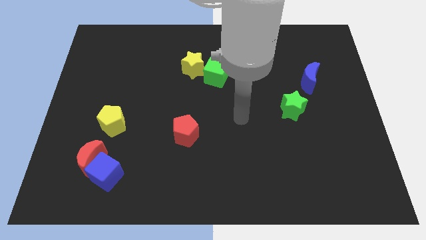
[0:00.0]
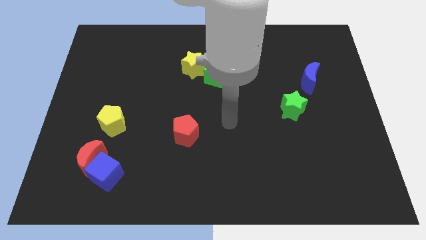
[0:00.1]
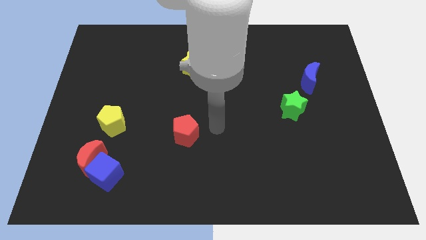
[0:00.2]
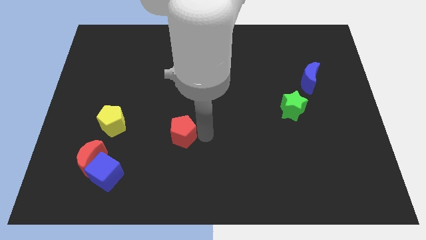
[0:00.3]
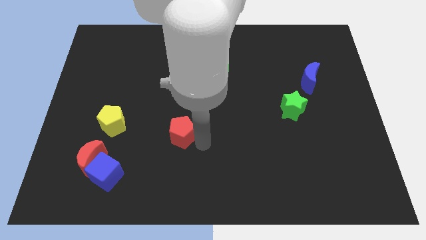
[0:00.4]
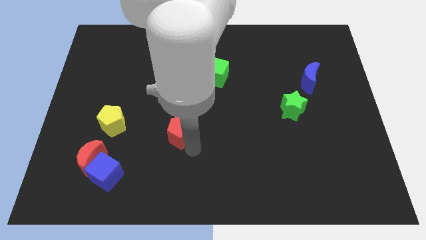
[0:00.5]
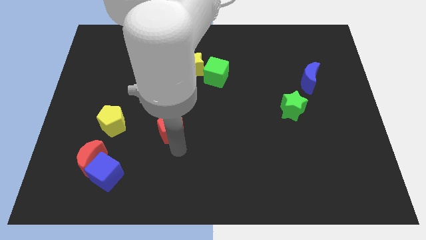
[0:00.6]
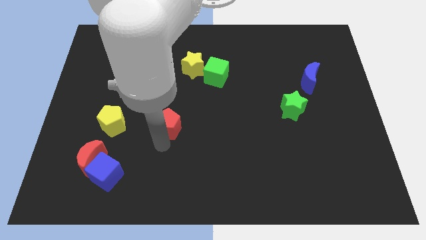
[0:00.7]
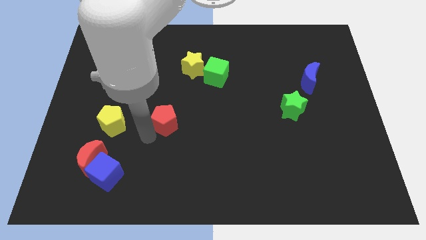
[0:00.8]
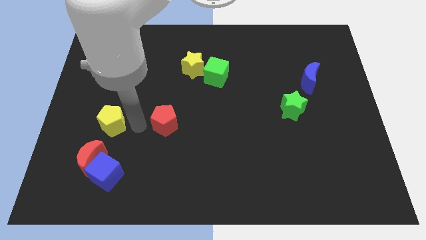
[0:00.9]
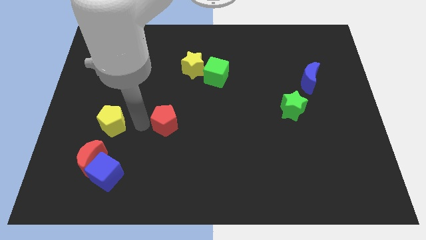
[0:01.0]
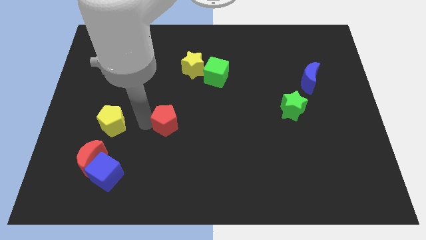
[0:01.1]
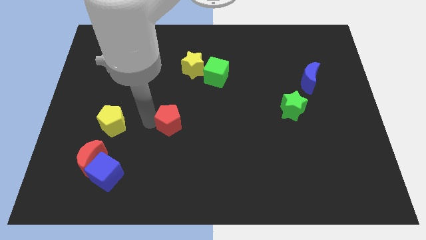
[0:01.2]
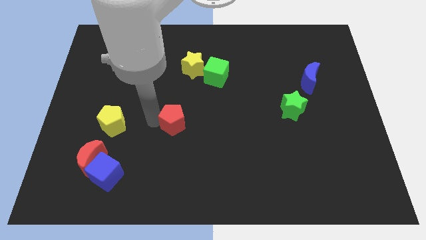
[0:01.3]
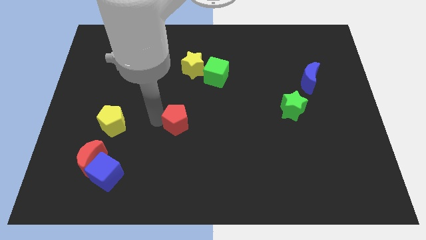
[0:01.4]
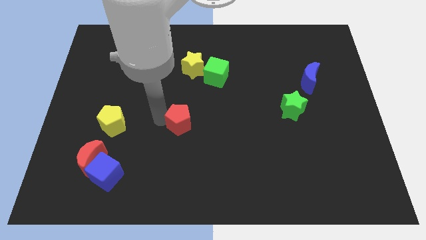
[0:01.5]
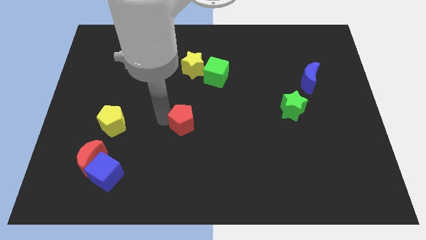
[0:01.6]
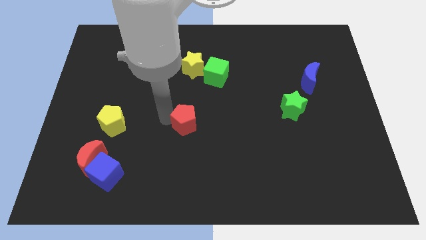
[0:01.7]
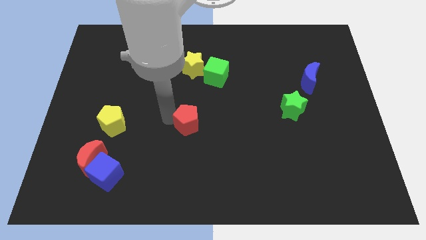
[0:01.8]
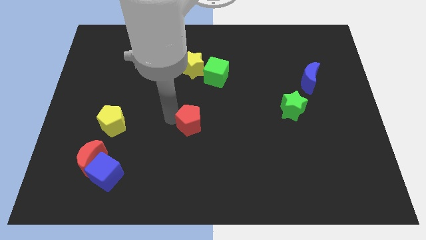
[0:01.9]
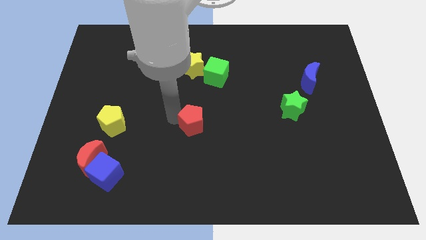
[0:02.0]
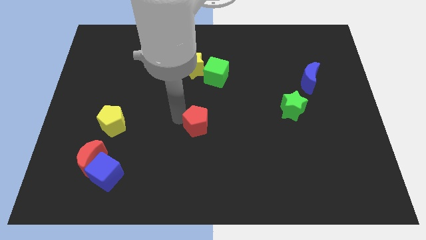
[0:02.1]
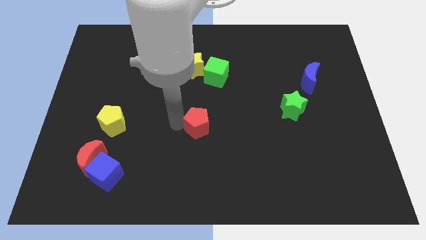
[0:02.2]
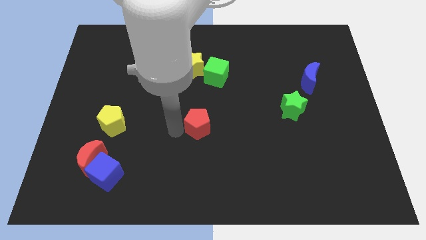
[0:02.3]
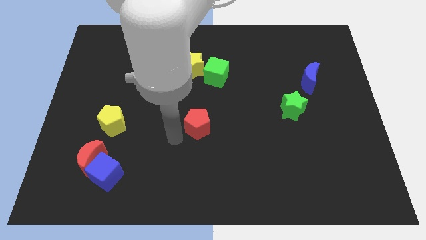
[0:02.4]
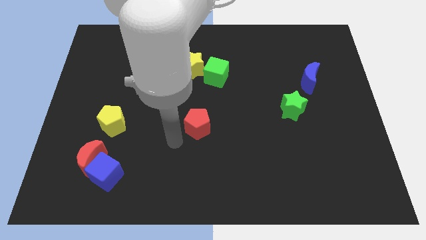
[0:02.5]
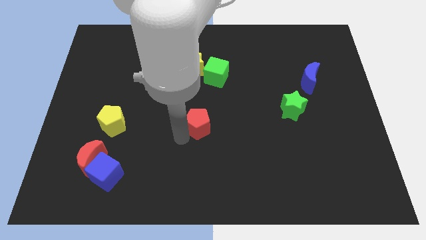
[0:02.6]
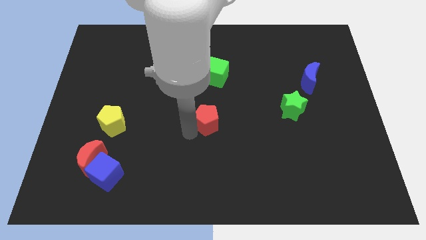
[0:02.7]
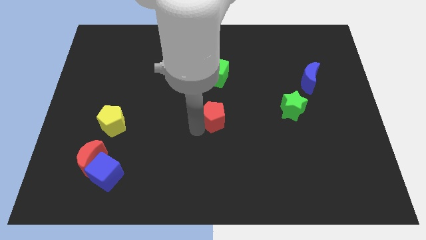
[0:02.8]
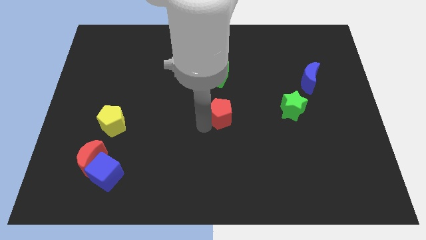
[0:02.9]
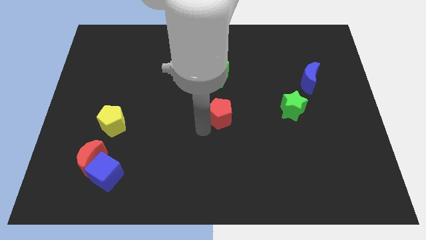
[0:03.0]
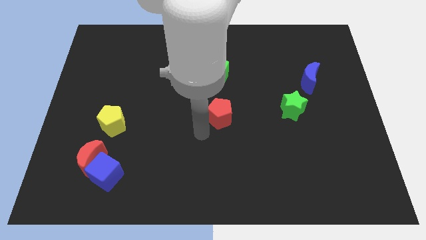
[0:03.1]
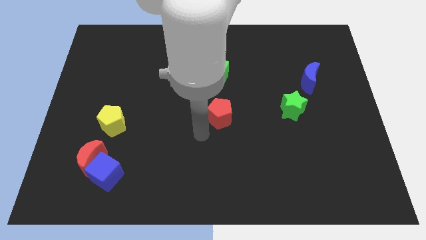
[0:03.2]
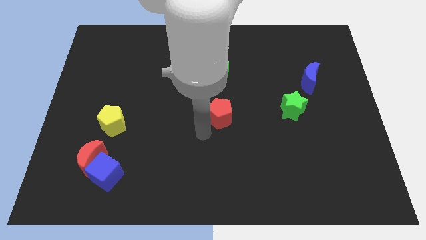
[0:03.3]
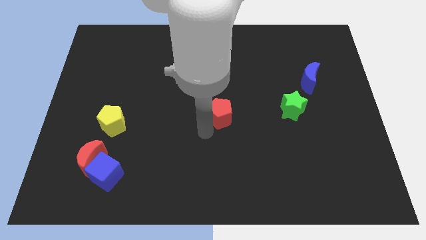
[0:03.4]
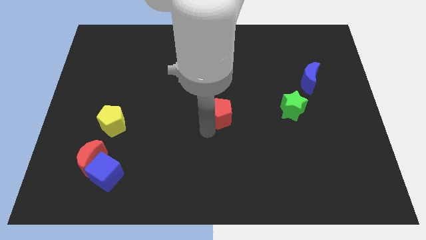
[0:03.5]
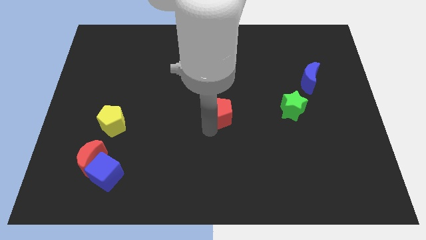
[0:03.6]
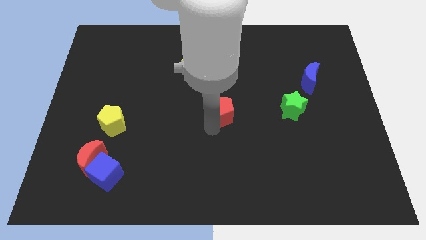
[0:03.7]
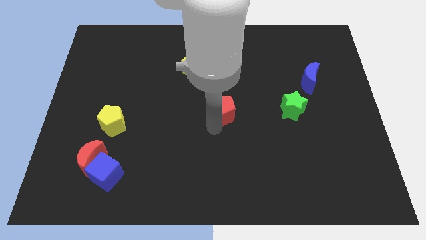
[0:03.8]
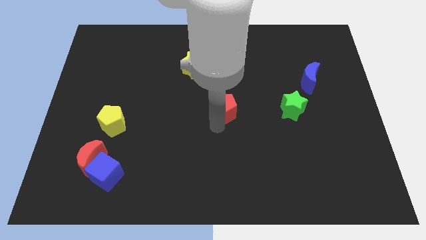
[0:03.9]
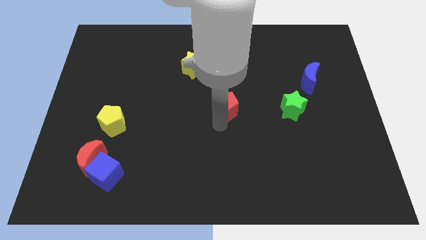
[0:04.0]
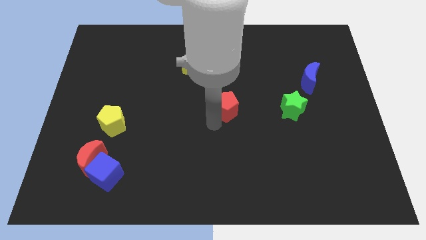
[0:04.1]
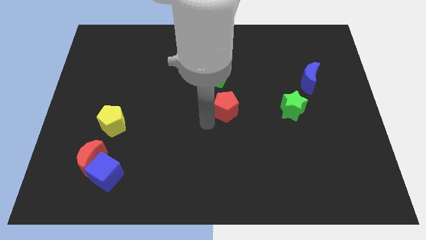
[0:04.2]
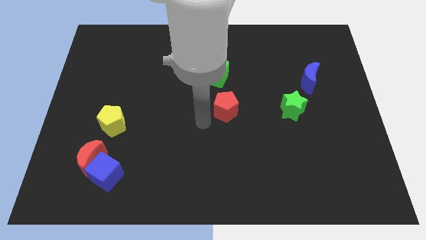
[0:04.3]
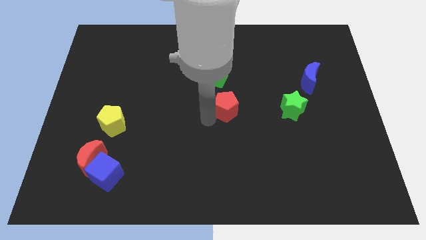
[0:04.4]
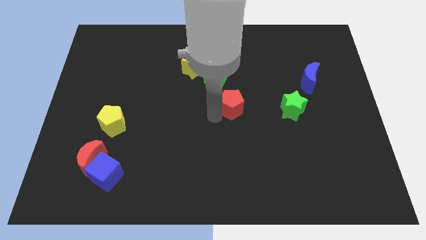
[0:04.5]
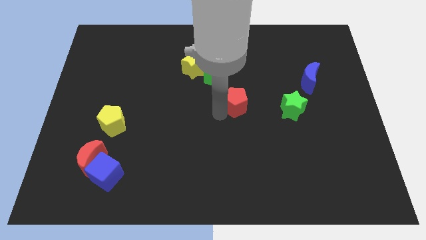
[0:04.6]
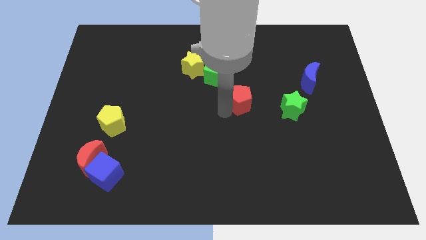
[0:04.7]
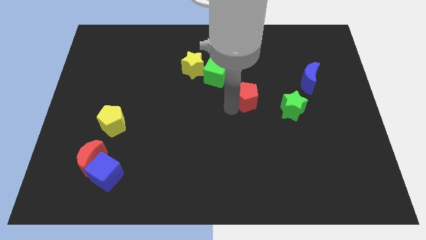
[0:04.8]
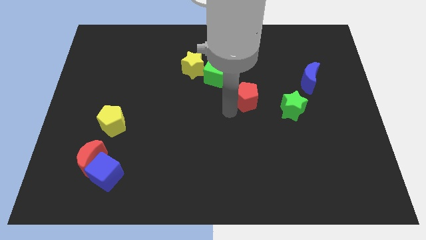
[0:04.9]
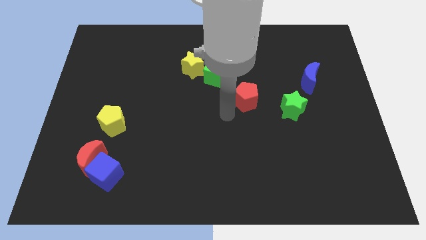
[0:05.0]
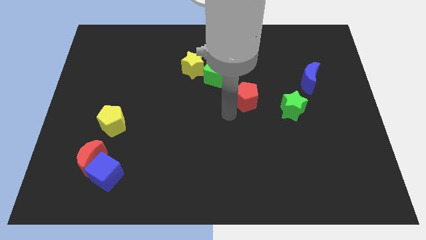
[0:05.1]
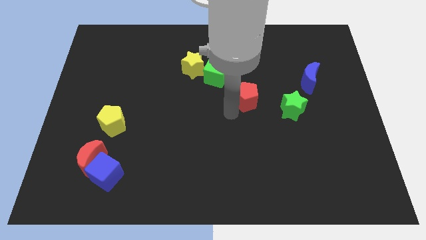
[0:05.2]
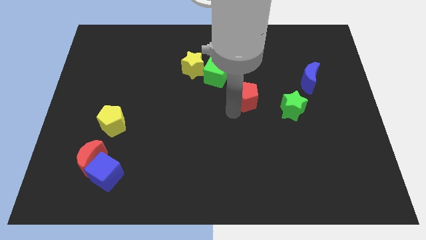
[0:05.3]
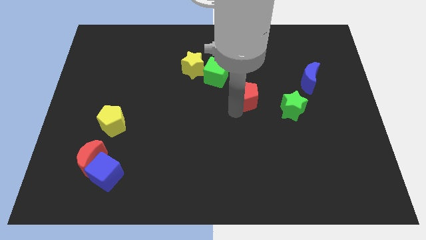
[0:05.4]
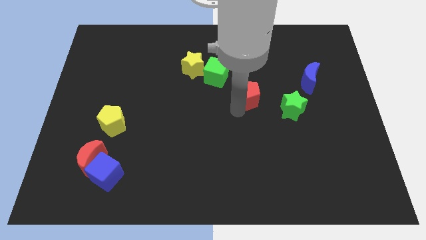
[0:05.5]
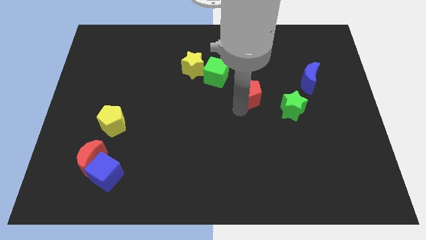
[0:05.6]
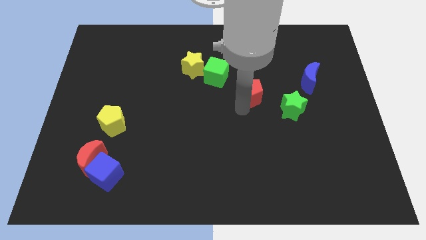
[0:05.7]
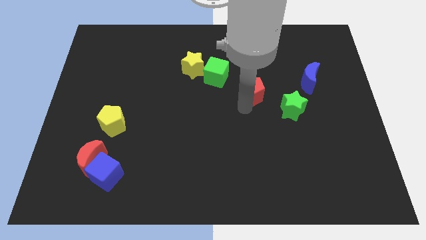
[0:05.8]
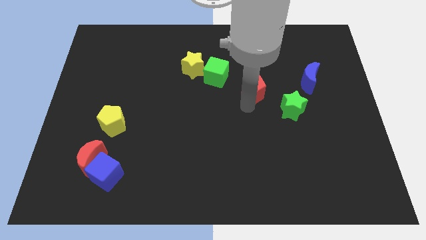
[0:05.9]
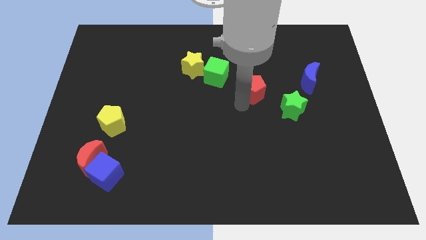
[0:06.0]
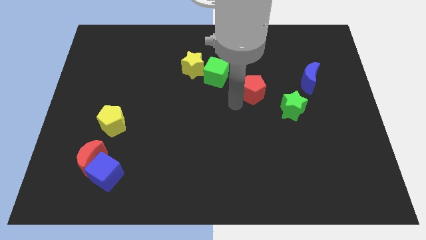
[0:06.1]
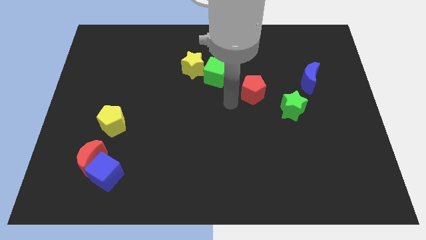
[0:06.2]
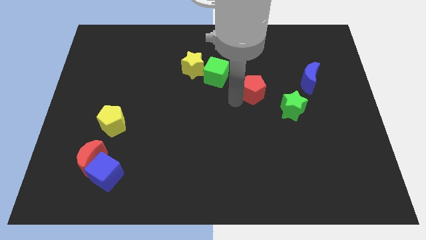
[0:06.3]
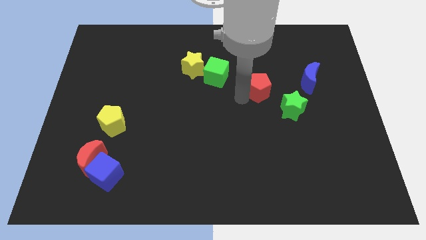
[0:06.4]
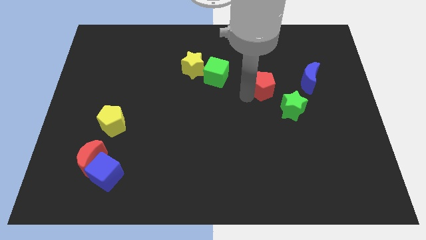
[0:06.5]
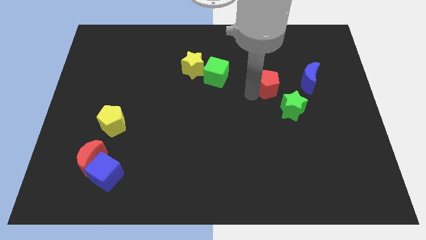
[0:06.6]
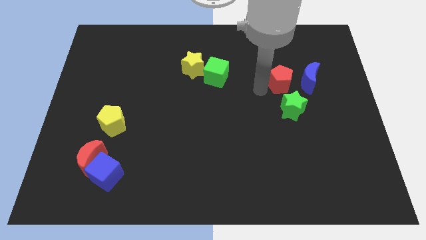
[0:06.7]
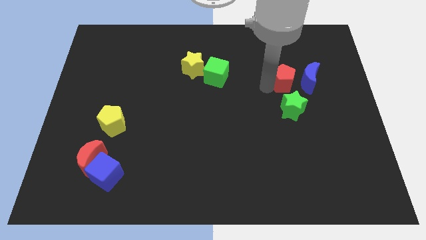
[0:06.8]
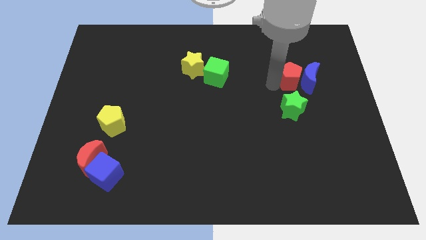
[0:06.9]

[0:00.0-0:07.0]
move the red pentagon next to the blue moon
